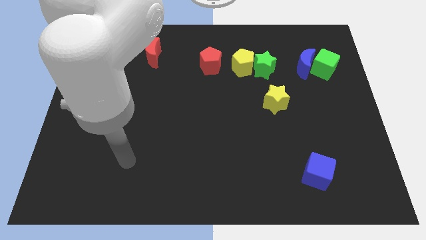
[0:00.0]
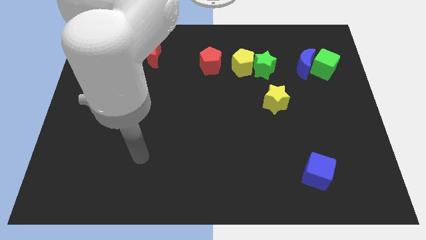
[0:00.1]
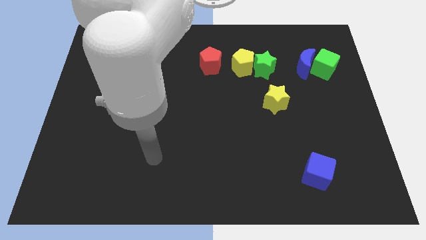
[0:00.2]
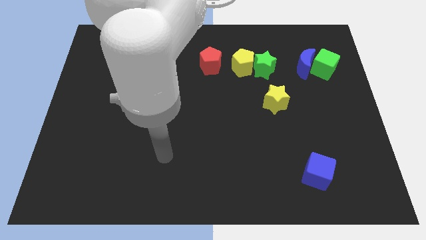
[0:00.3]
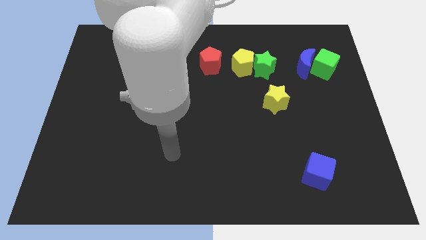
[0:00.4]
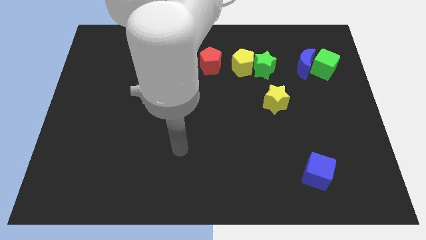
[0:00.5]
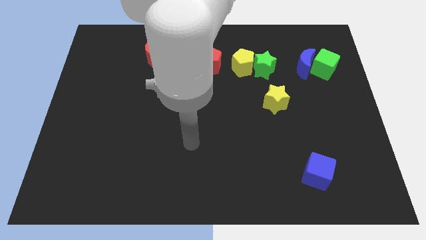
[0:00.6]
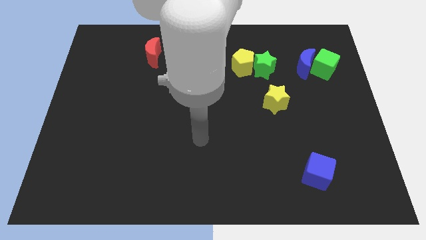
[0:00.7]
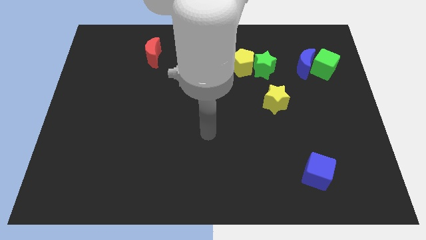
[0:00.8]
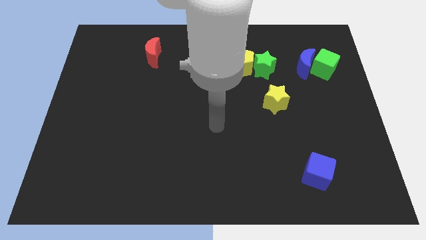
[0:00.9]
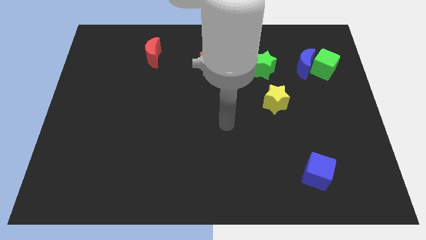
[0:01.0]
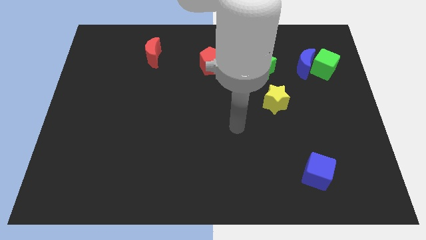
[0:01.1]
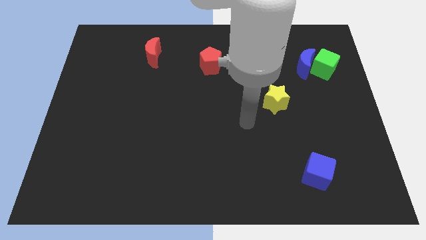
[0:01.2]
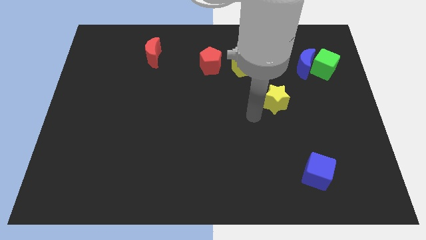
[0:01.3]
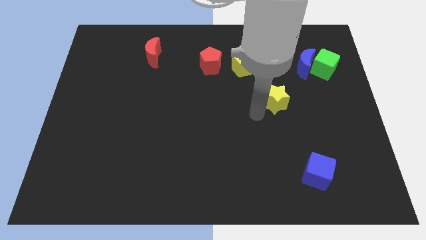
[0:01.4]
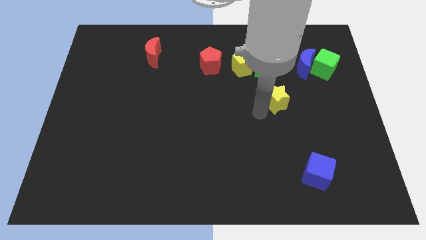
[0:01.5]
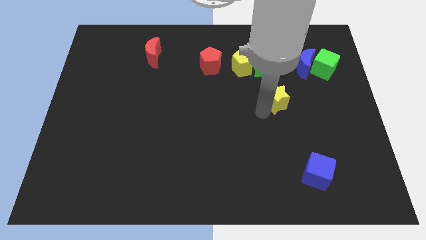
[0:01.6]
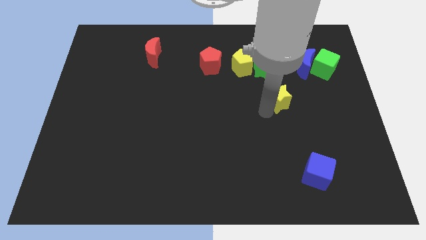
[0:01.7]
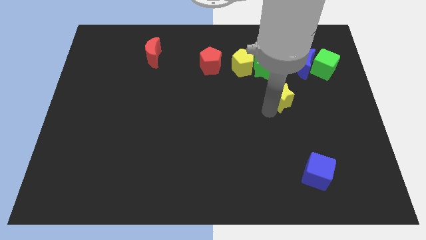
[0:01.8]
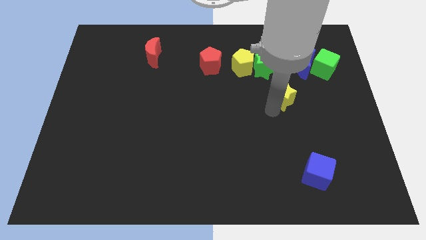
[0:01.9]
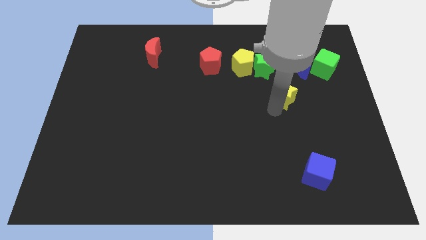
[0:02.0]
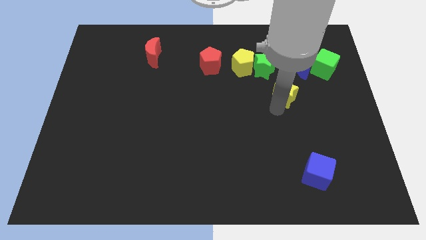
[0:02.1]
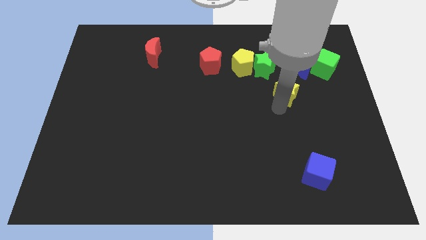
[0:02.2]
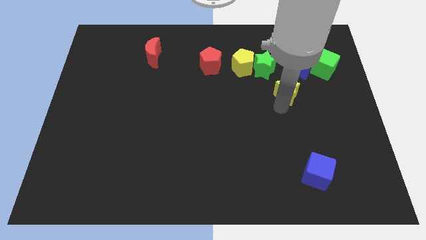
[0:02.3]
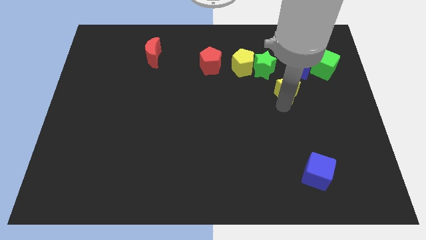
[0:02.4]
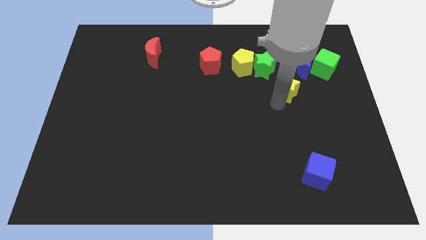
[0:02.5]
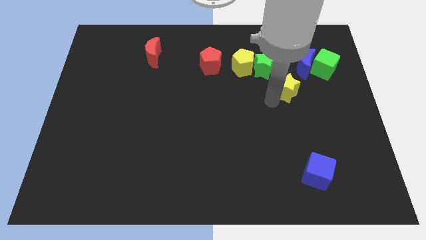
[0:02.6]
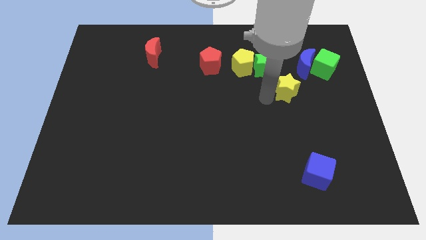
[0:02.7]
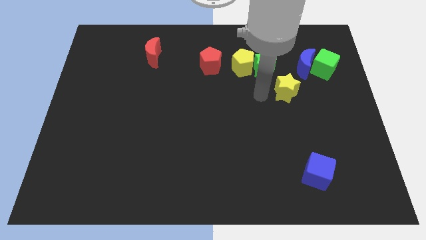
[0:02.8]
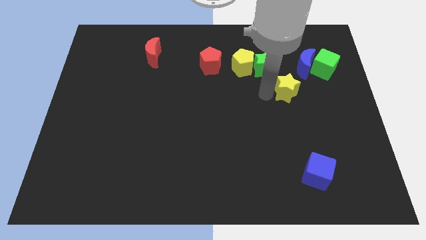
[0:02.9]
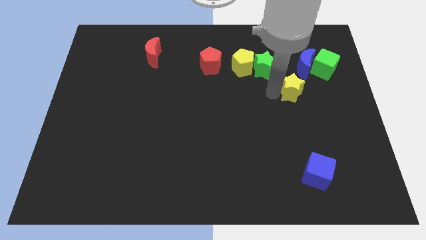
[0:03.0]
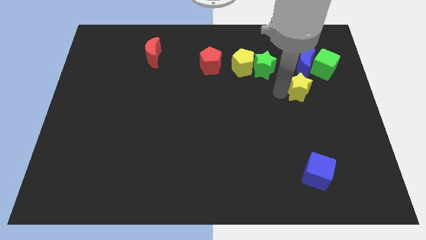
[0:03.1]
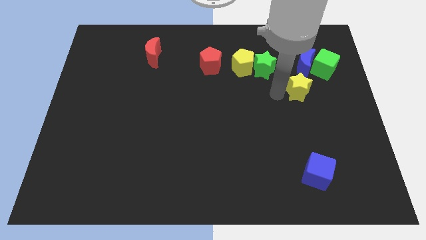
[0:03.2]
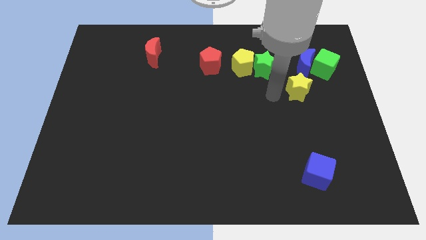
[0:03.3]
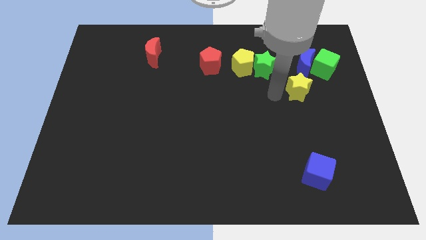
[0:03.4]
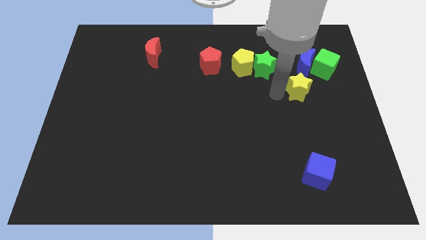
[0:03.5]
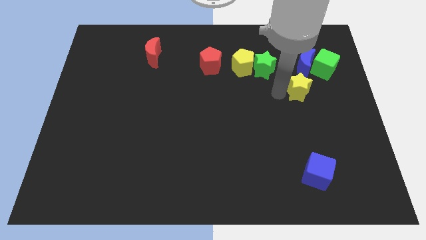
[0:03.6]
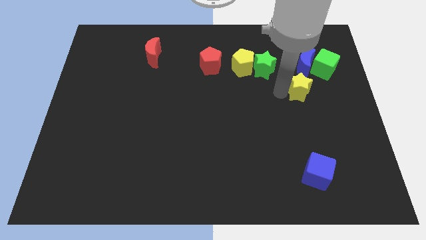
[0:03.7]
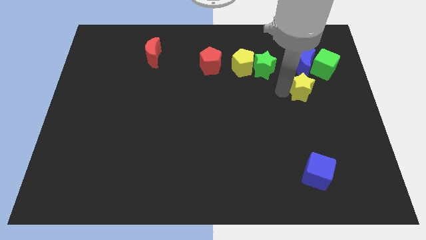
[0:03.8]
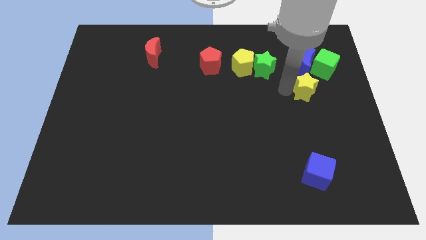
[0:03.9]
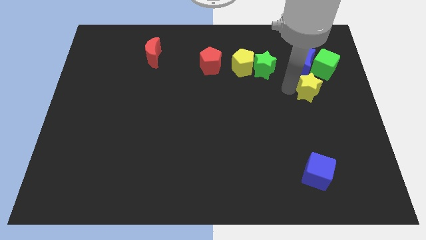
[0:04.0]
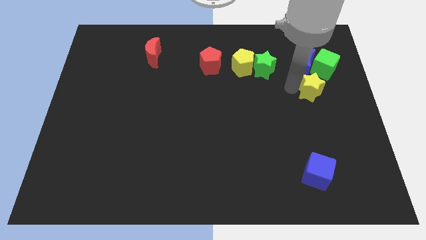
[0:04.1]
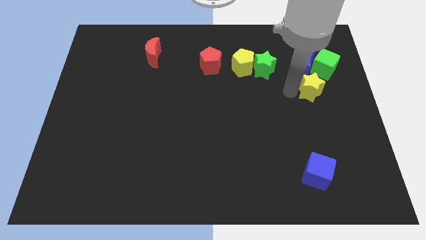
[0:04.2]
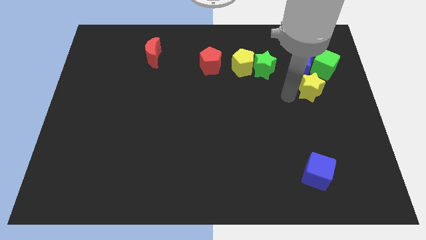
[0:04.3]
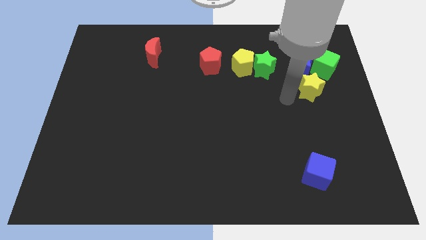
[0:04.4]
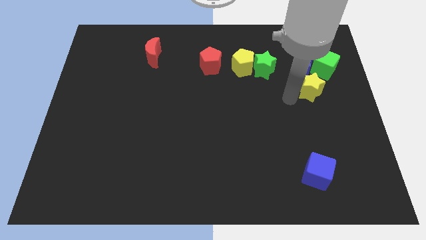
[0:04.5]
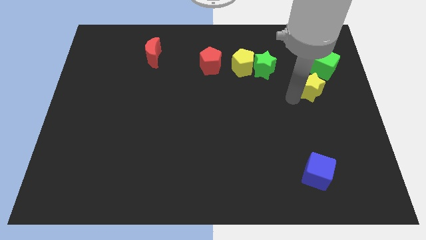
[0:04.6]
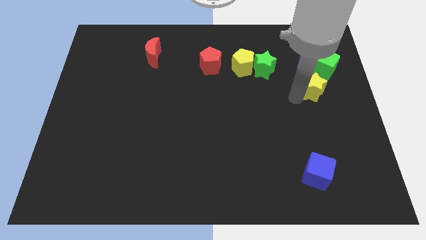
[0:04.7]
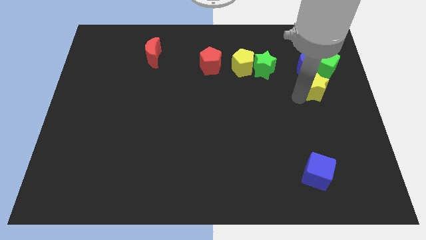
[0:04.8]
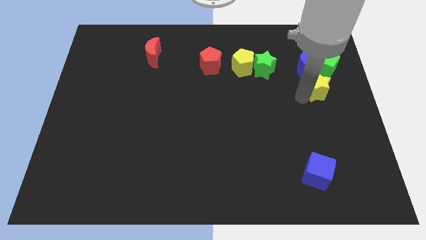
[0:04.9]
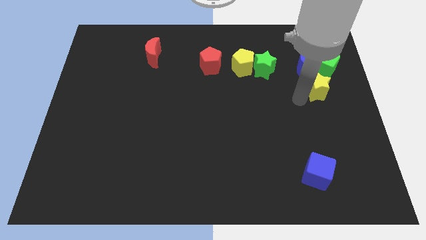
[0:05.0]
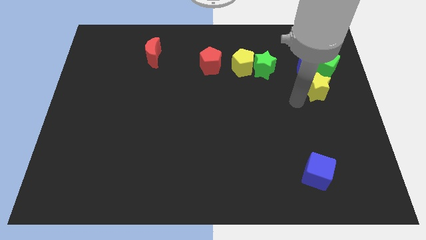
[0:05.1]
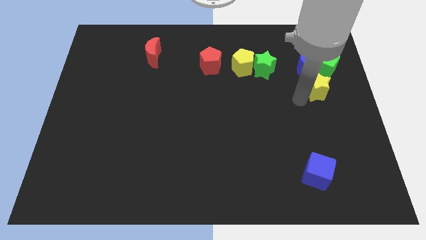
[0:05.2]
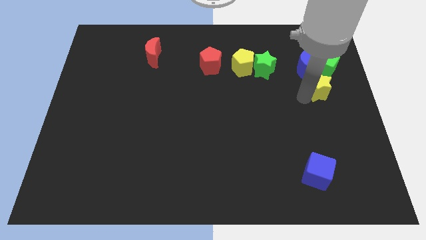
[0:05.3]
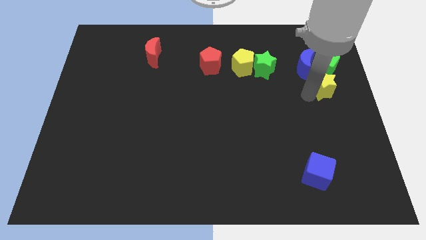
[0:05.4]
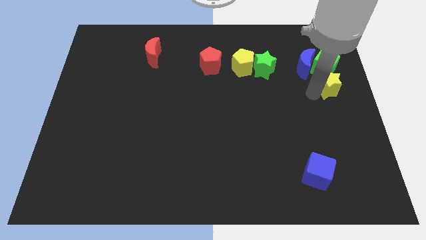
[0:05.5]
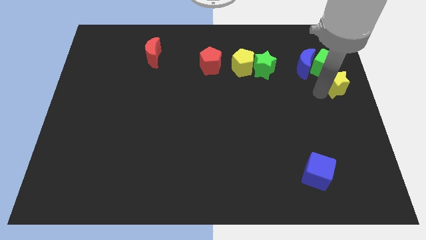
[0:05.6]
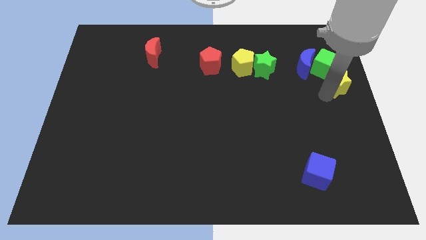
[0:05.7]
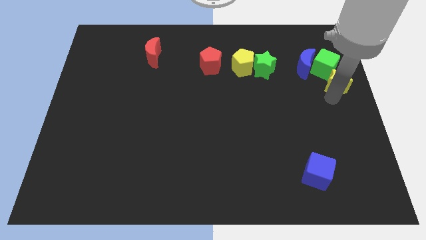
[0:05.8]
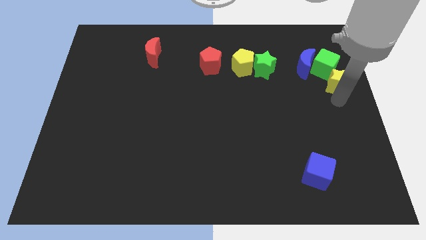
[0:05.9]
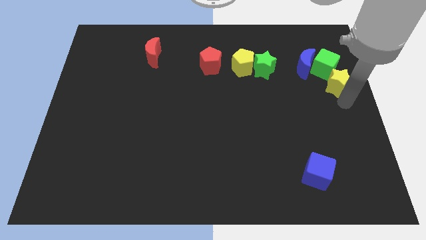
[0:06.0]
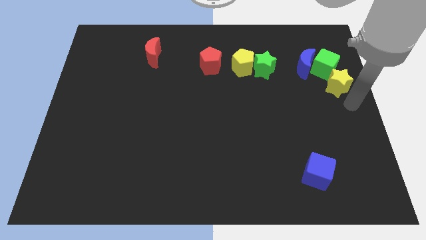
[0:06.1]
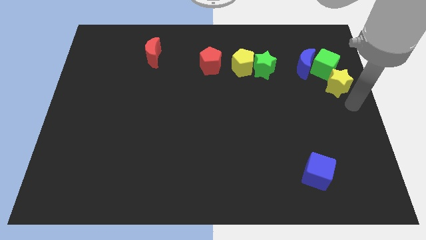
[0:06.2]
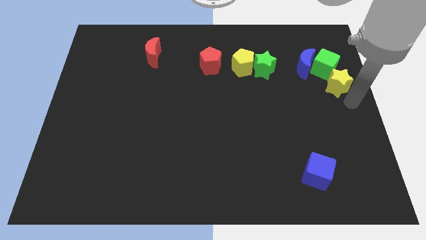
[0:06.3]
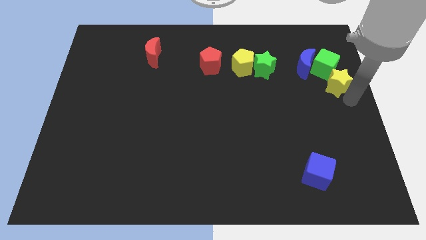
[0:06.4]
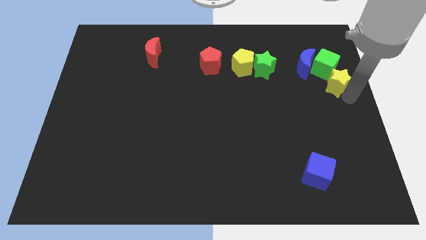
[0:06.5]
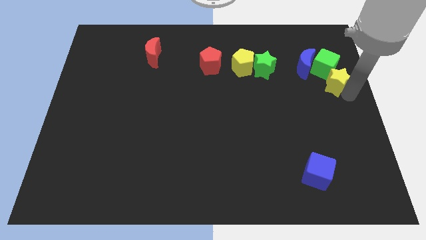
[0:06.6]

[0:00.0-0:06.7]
put the yellow star close to the green cube

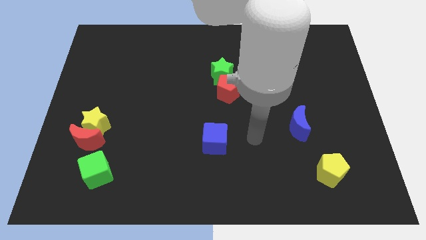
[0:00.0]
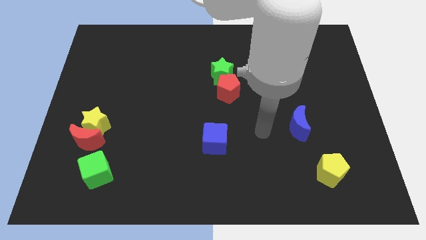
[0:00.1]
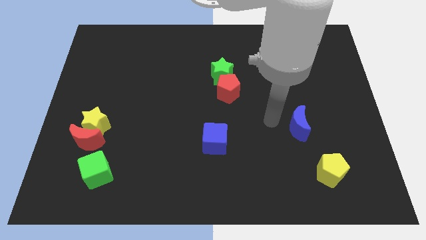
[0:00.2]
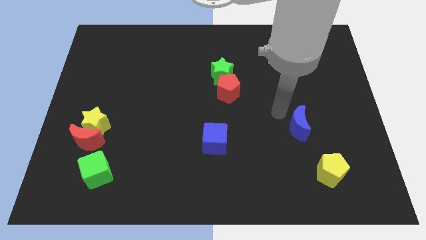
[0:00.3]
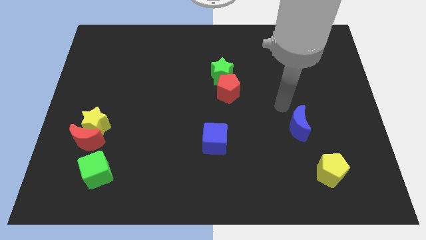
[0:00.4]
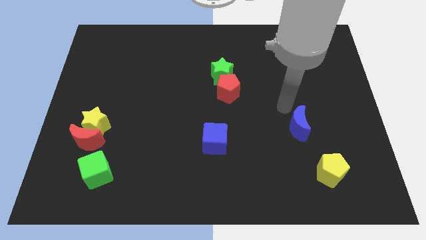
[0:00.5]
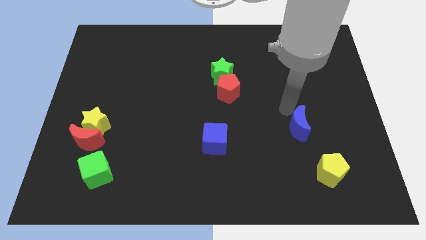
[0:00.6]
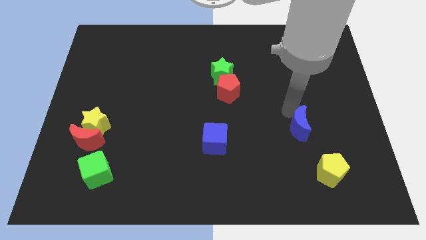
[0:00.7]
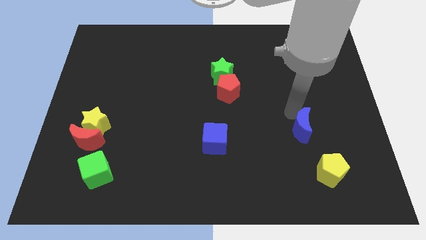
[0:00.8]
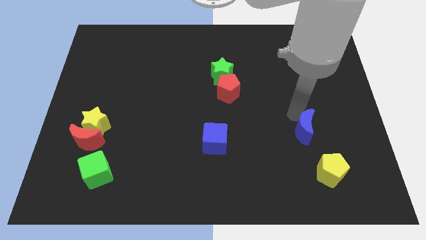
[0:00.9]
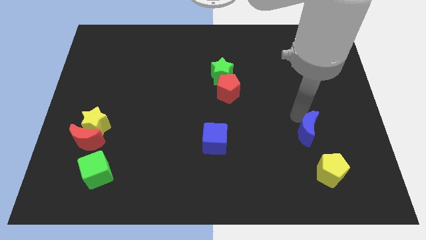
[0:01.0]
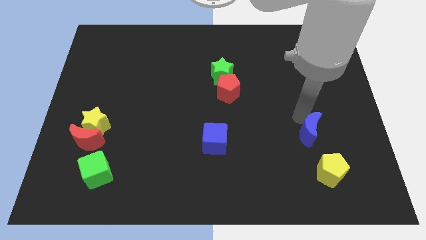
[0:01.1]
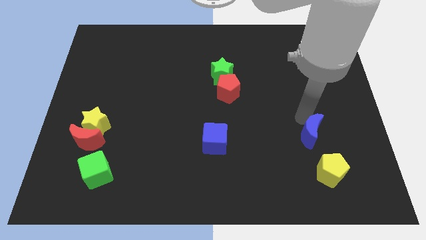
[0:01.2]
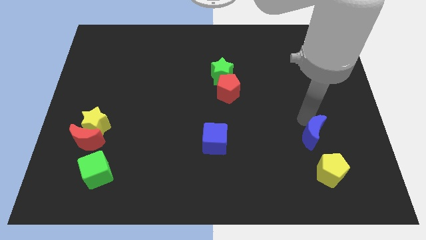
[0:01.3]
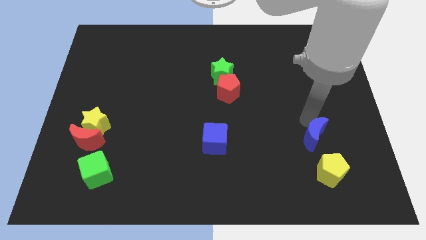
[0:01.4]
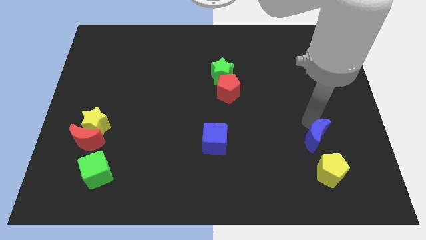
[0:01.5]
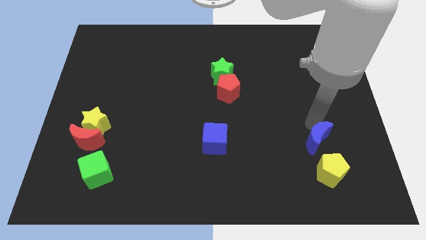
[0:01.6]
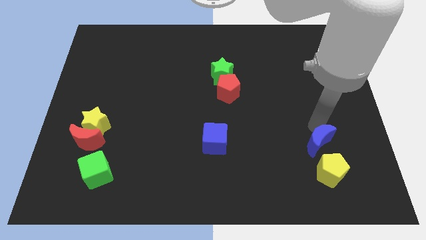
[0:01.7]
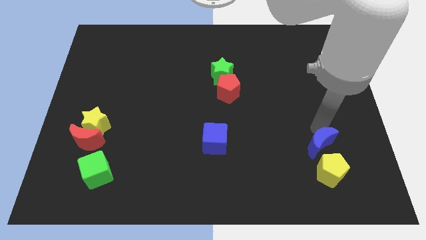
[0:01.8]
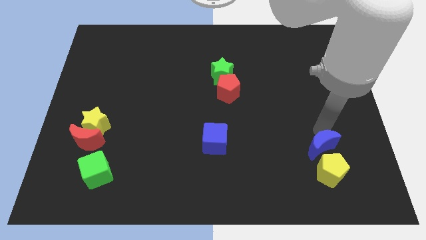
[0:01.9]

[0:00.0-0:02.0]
put the blue moon close to the yellow pentagon
